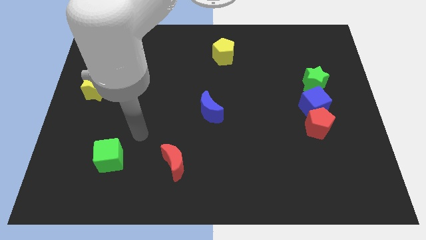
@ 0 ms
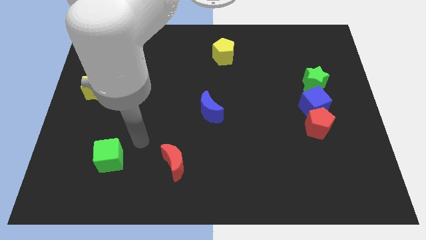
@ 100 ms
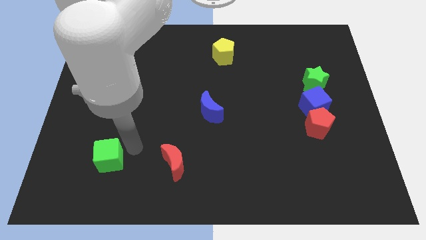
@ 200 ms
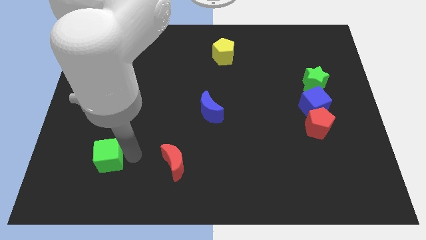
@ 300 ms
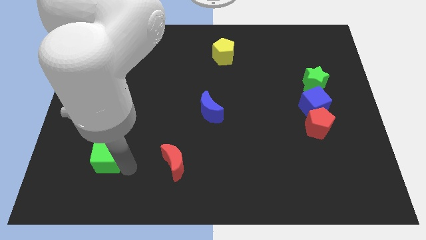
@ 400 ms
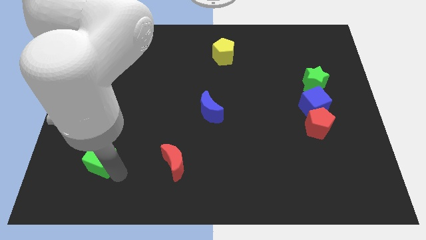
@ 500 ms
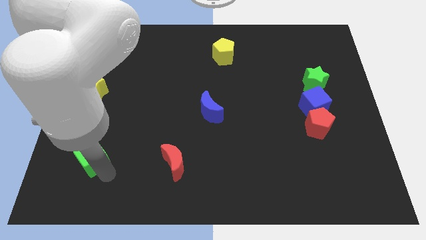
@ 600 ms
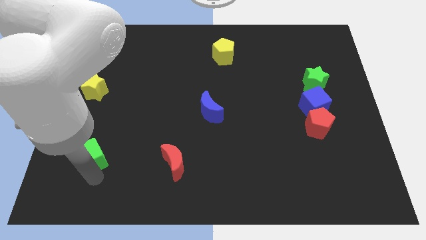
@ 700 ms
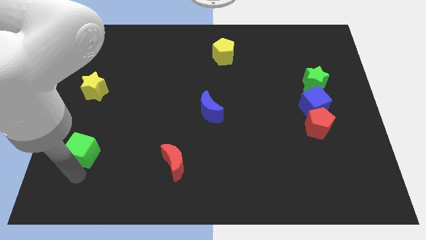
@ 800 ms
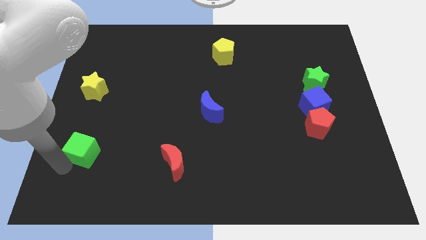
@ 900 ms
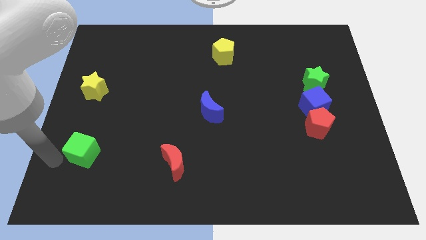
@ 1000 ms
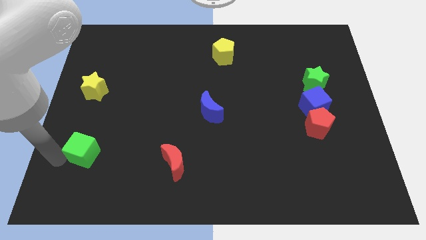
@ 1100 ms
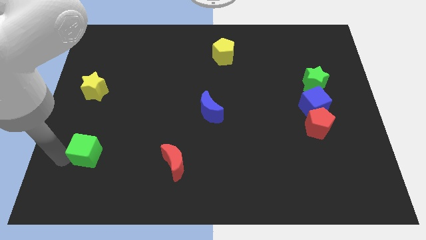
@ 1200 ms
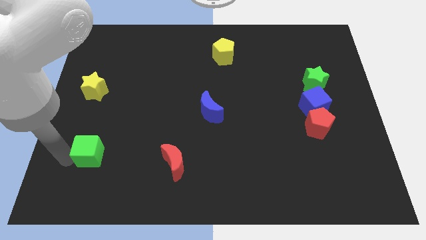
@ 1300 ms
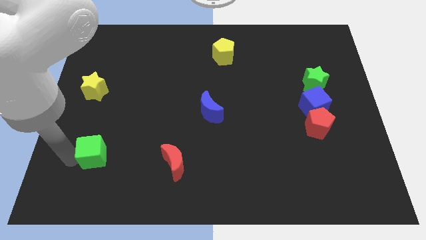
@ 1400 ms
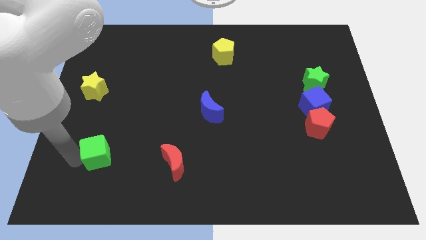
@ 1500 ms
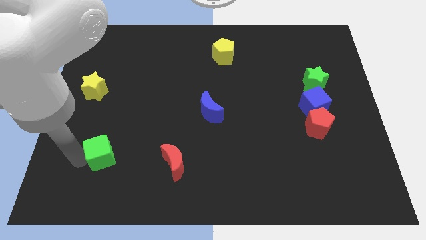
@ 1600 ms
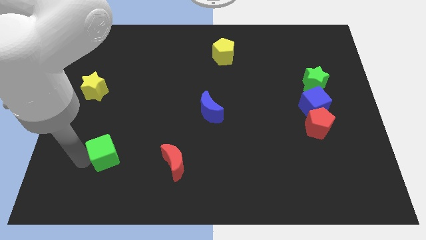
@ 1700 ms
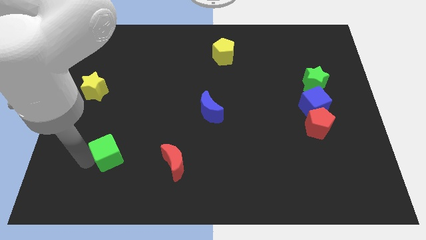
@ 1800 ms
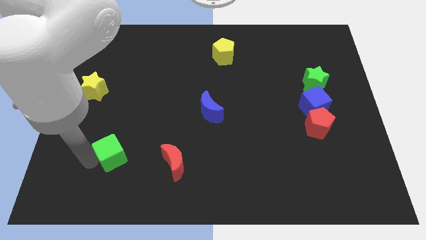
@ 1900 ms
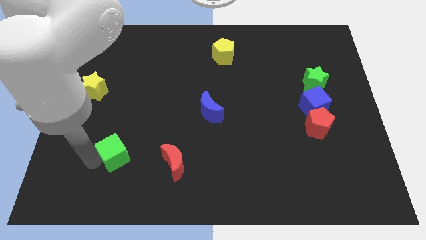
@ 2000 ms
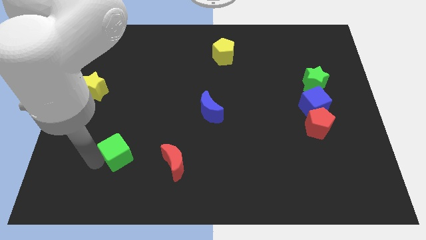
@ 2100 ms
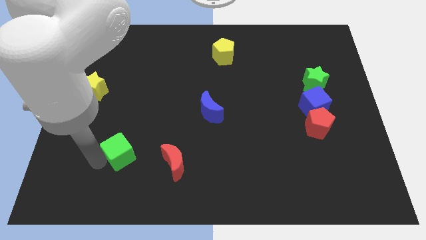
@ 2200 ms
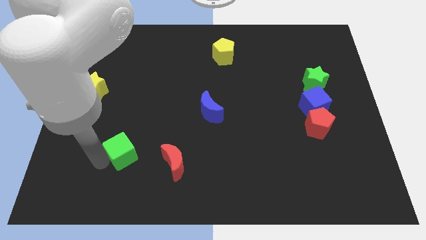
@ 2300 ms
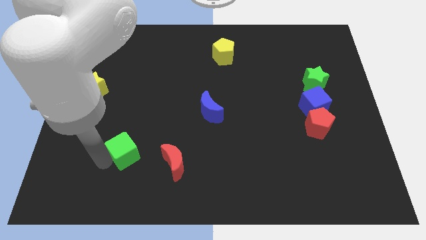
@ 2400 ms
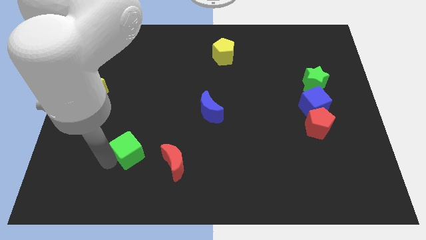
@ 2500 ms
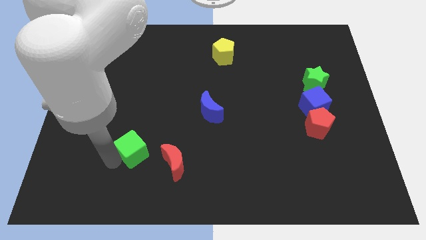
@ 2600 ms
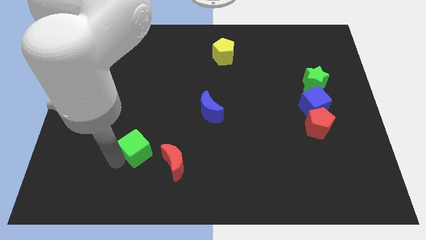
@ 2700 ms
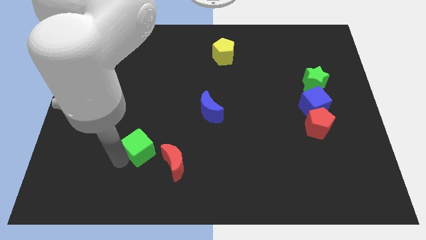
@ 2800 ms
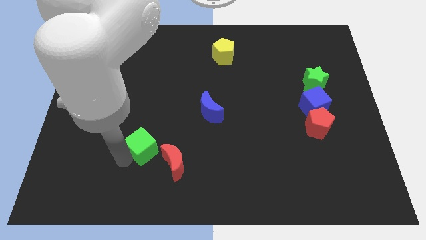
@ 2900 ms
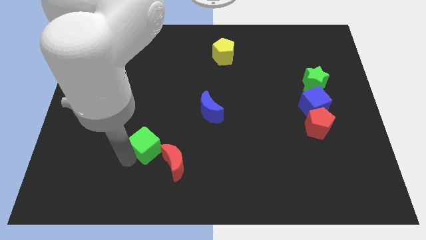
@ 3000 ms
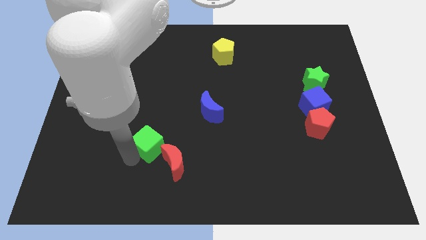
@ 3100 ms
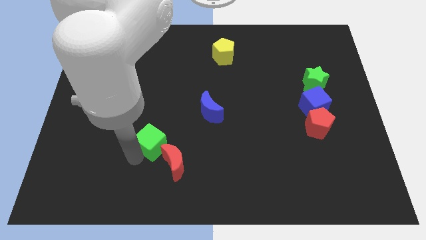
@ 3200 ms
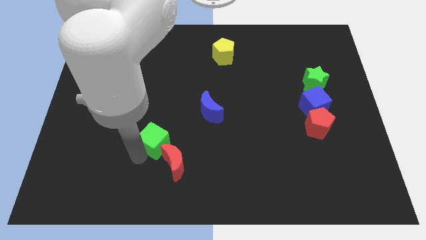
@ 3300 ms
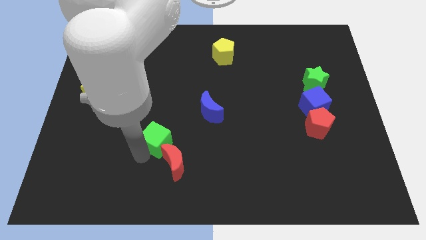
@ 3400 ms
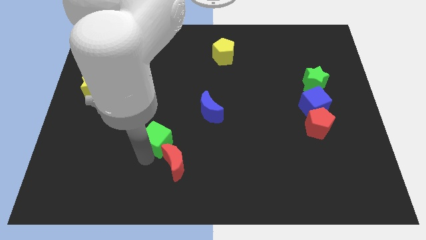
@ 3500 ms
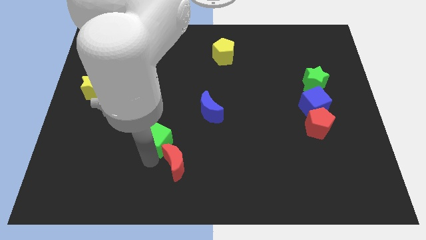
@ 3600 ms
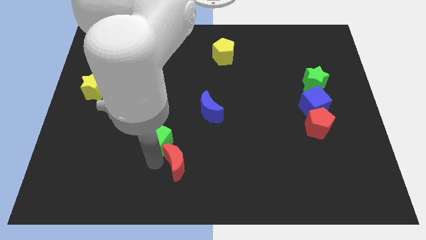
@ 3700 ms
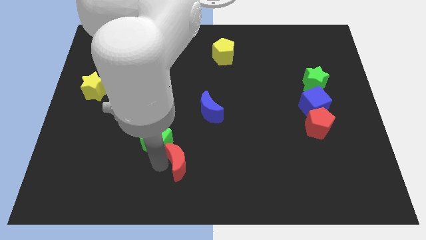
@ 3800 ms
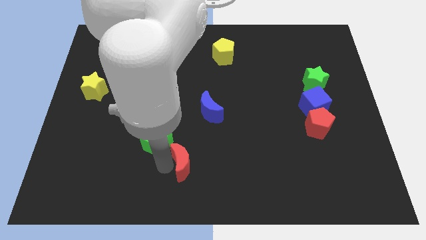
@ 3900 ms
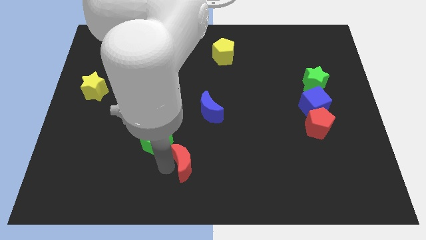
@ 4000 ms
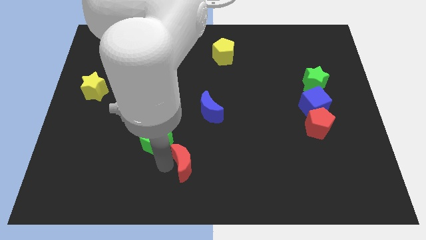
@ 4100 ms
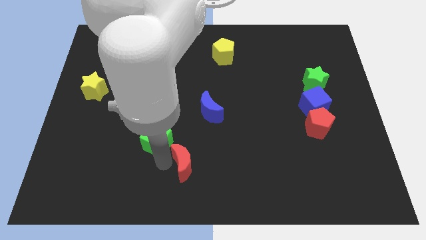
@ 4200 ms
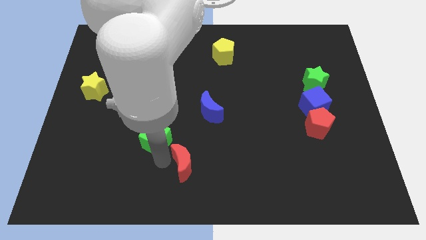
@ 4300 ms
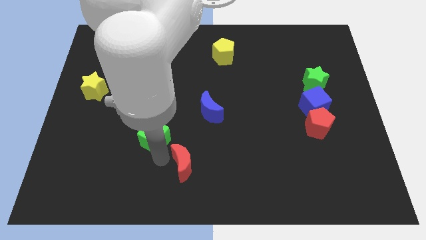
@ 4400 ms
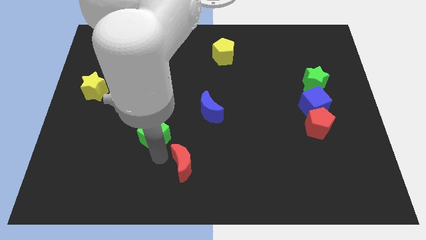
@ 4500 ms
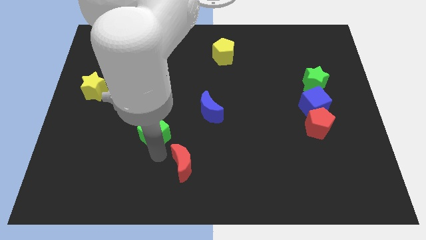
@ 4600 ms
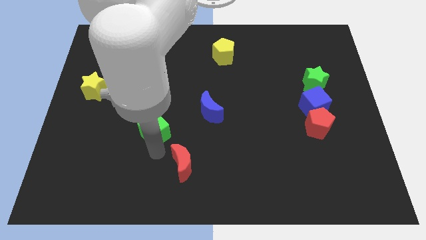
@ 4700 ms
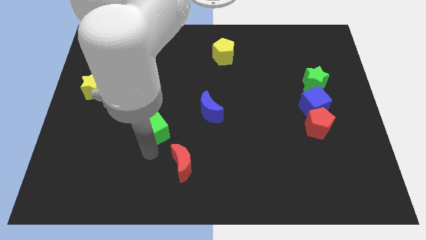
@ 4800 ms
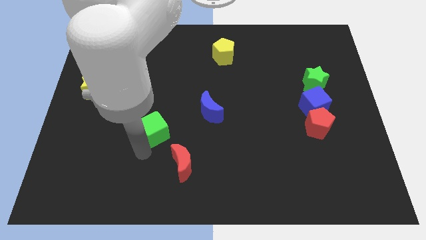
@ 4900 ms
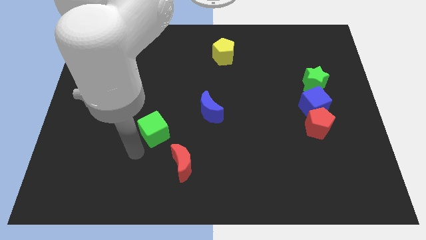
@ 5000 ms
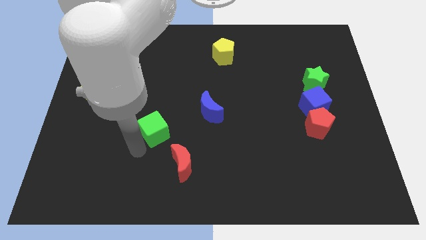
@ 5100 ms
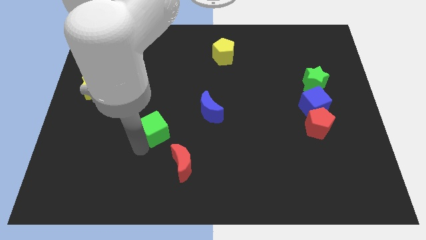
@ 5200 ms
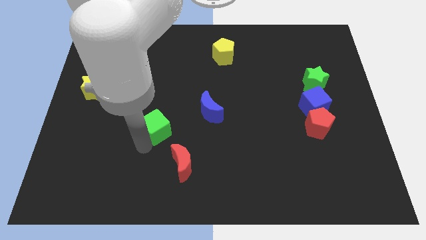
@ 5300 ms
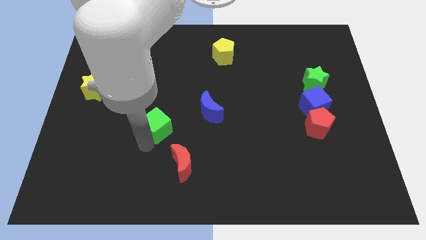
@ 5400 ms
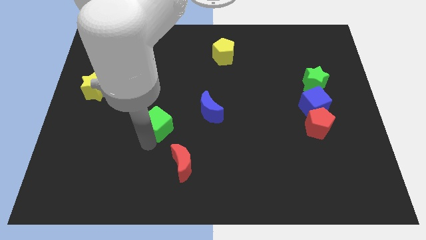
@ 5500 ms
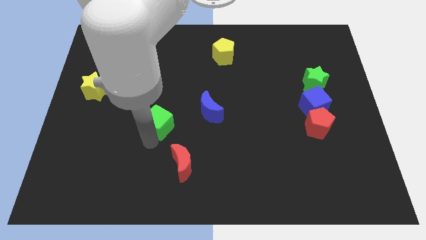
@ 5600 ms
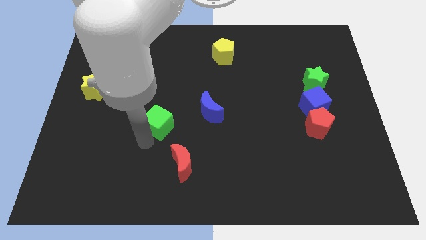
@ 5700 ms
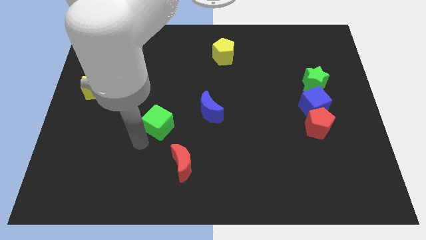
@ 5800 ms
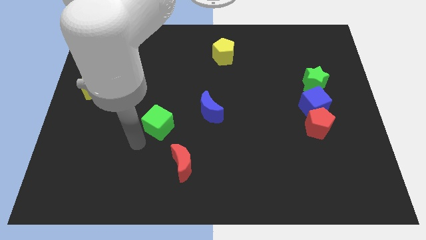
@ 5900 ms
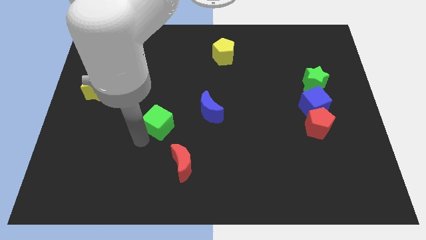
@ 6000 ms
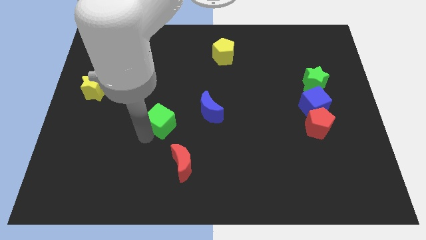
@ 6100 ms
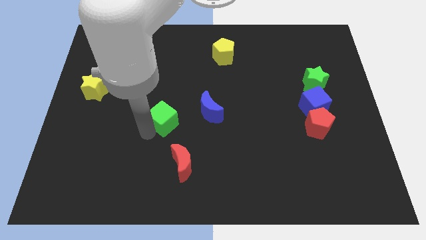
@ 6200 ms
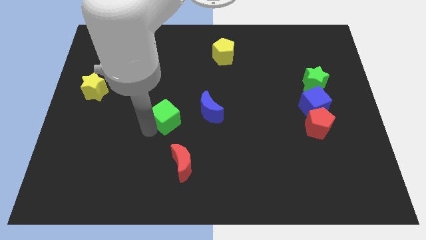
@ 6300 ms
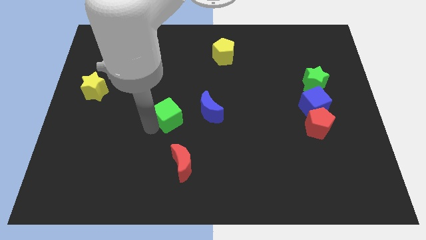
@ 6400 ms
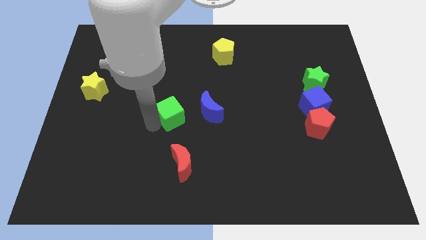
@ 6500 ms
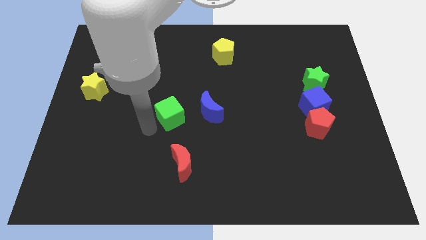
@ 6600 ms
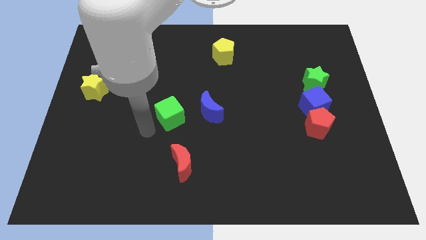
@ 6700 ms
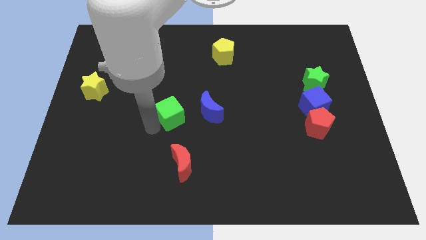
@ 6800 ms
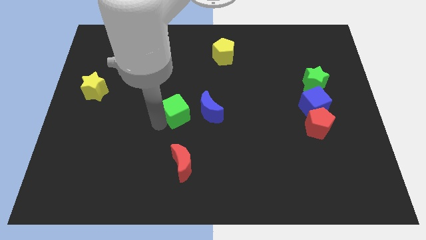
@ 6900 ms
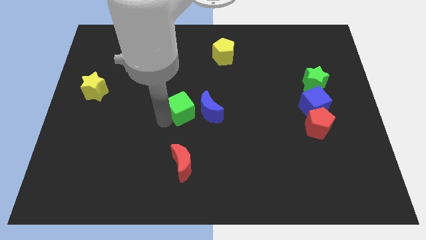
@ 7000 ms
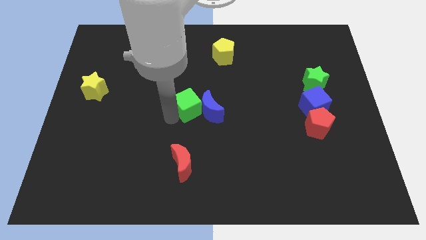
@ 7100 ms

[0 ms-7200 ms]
move the green cube up and right

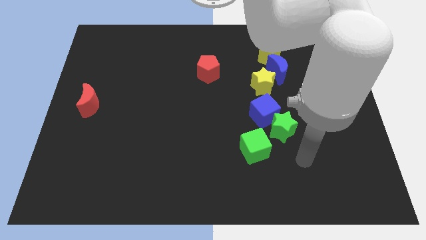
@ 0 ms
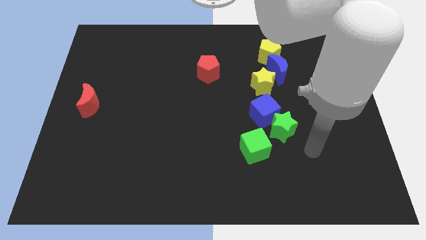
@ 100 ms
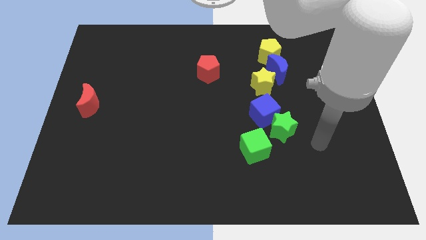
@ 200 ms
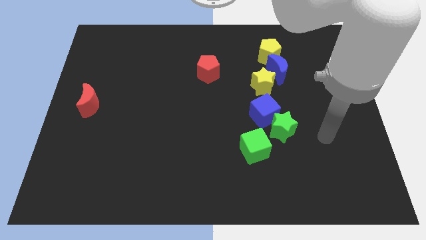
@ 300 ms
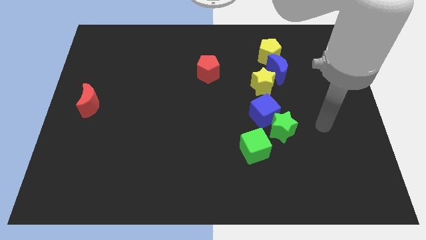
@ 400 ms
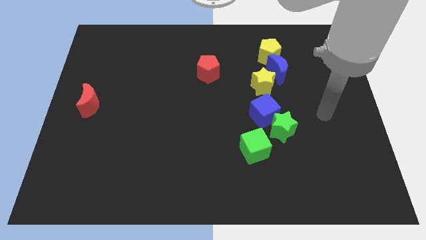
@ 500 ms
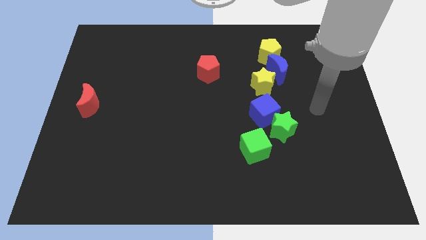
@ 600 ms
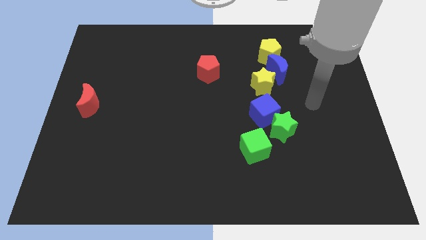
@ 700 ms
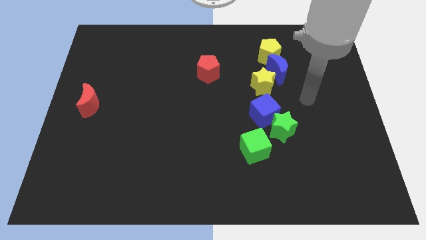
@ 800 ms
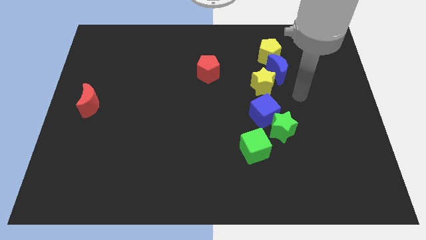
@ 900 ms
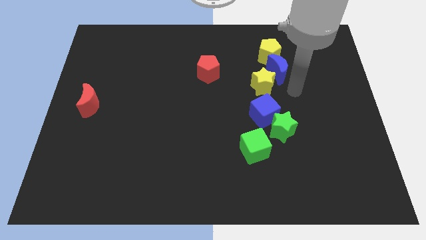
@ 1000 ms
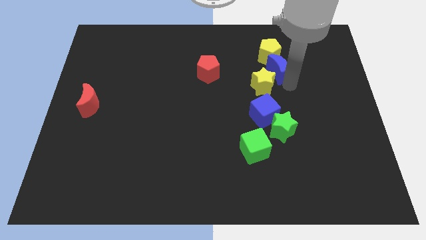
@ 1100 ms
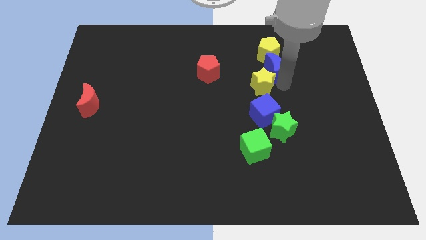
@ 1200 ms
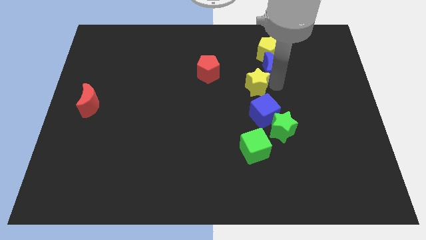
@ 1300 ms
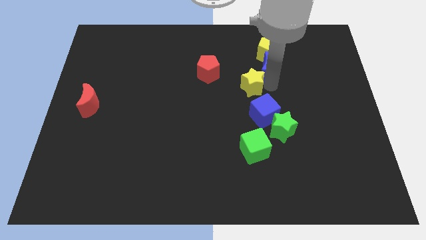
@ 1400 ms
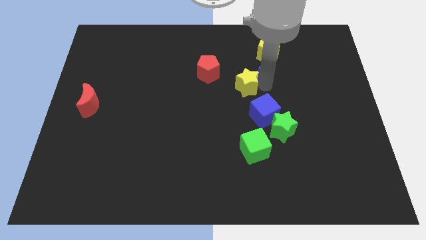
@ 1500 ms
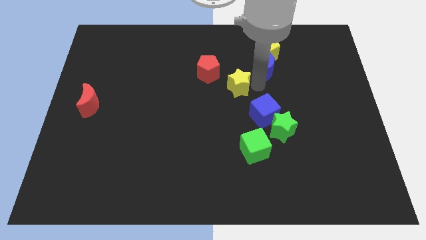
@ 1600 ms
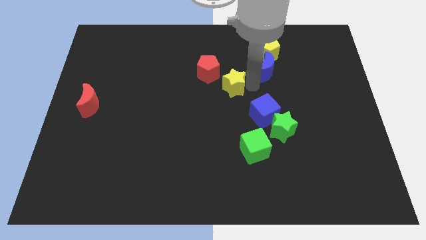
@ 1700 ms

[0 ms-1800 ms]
slightly push the yellow star to the left
